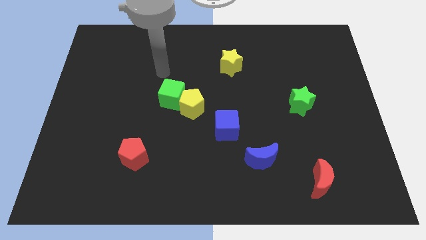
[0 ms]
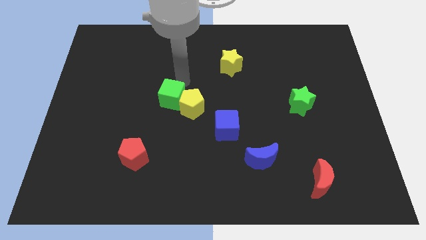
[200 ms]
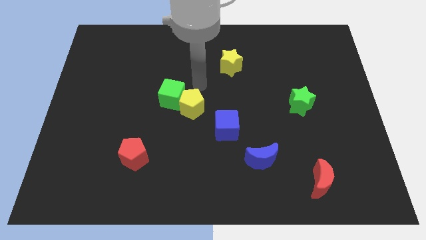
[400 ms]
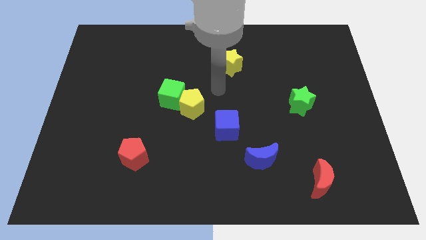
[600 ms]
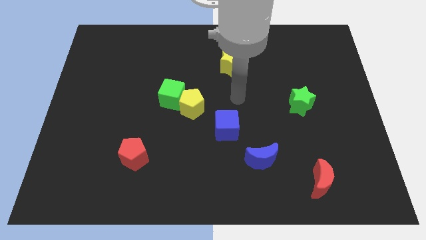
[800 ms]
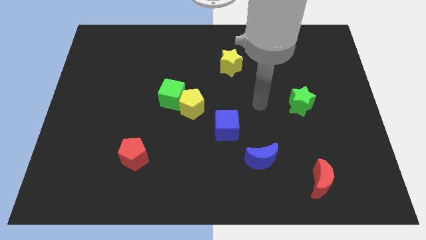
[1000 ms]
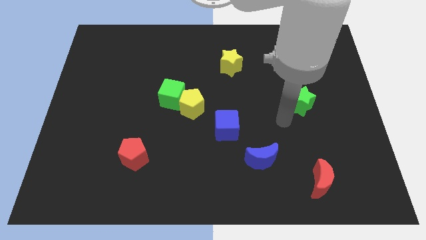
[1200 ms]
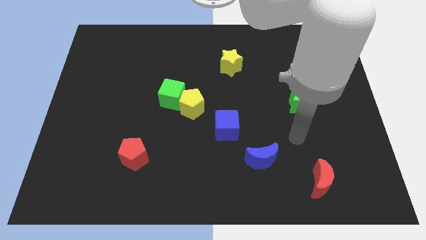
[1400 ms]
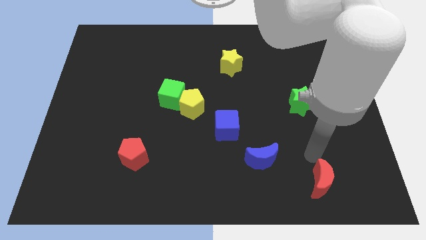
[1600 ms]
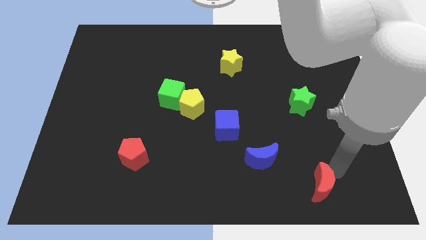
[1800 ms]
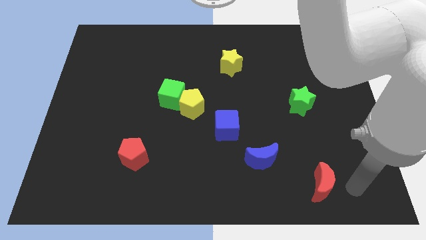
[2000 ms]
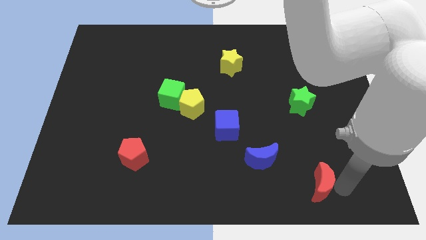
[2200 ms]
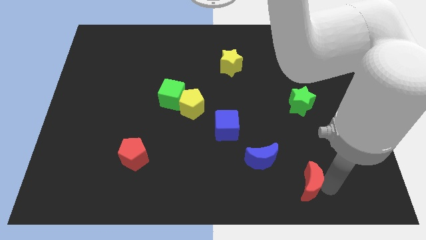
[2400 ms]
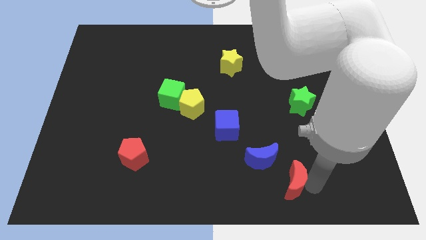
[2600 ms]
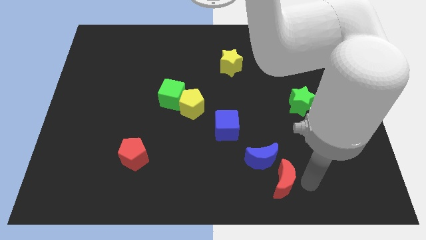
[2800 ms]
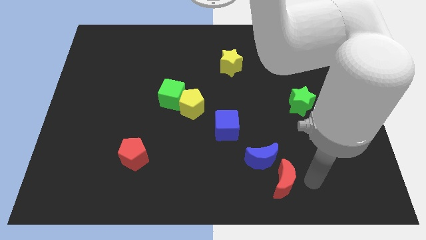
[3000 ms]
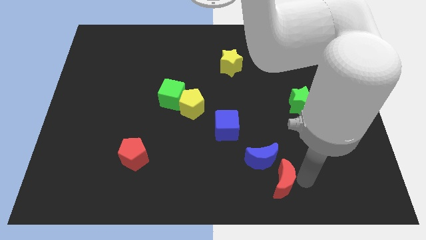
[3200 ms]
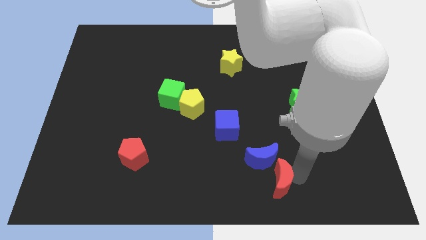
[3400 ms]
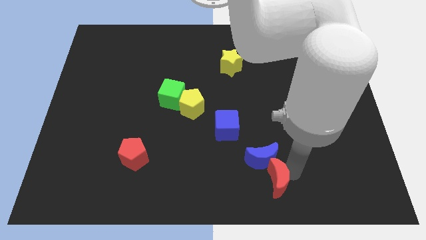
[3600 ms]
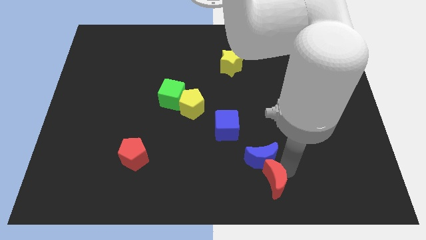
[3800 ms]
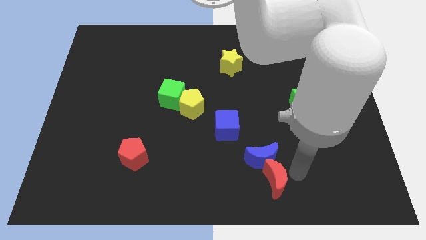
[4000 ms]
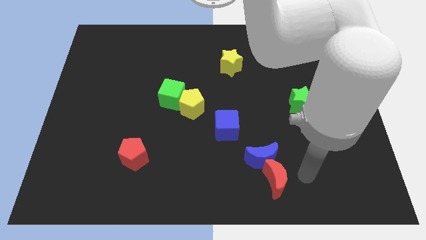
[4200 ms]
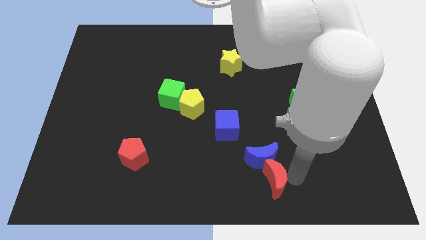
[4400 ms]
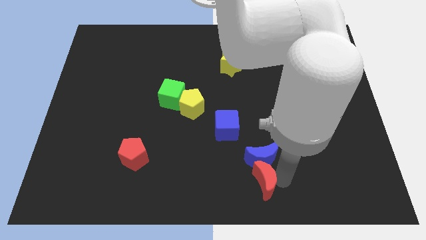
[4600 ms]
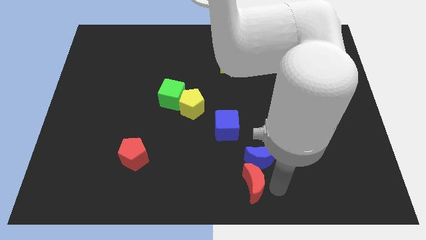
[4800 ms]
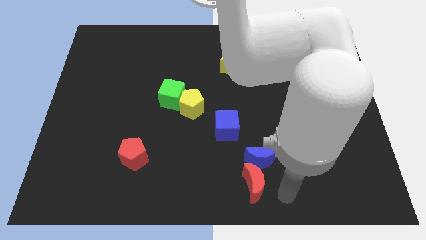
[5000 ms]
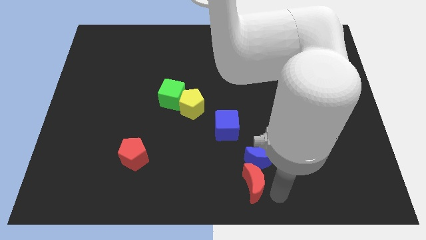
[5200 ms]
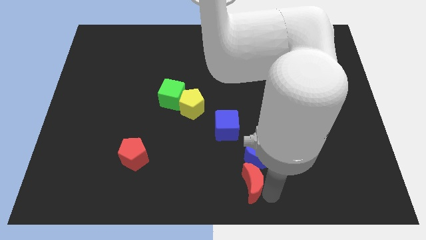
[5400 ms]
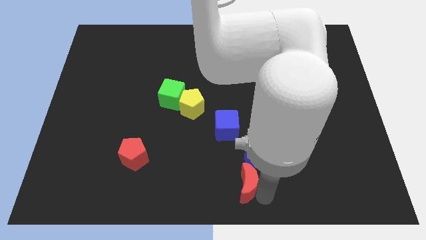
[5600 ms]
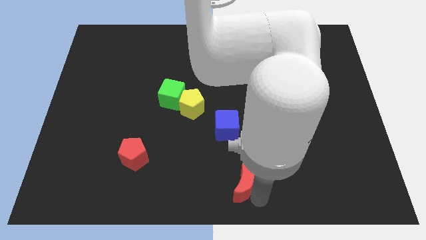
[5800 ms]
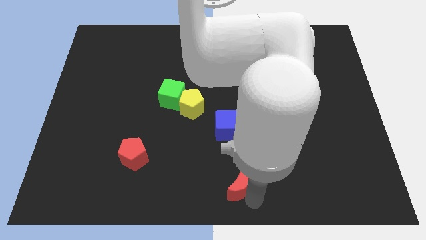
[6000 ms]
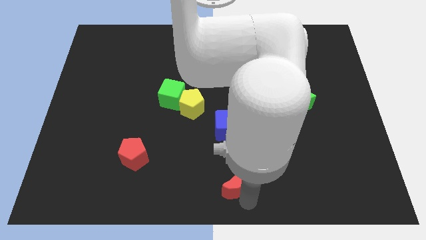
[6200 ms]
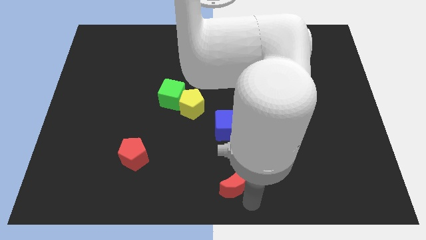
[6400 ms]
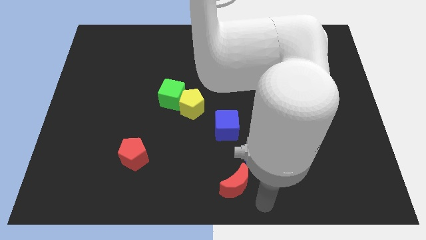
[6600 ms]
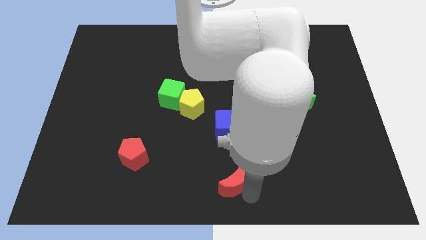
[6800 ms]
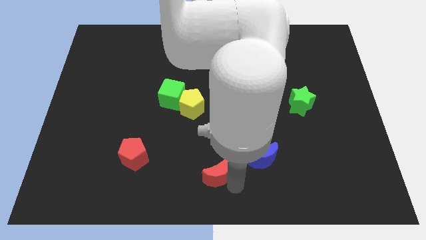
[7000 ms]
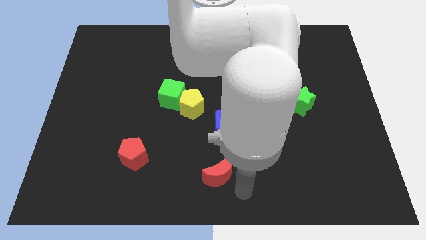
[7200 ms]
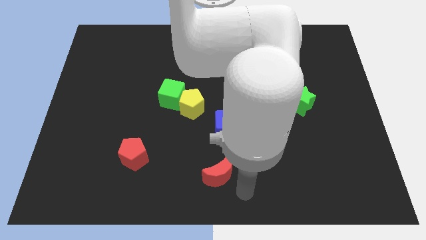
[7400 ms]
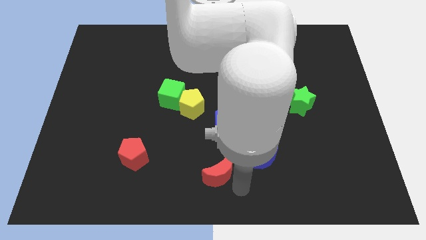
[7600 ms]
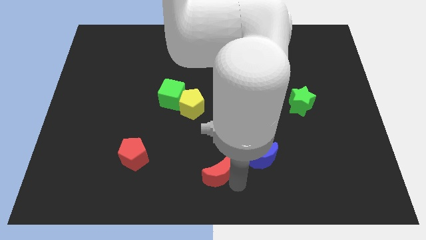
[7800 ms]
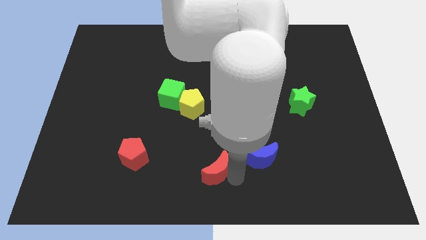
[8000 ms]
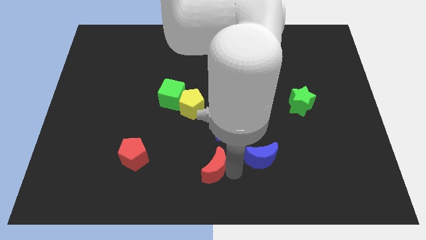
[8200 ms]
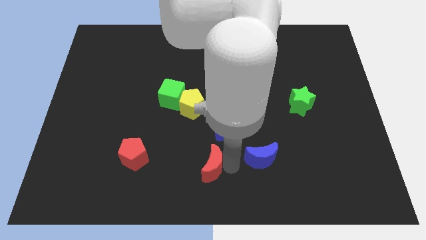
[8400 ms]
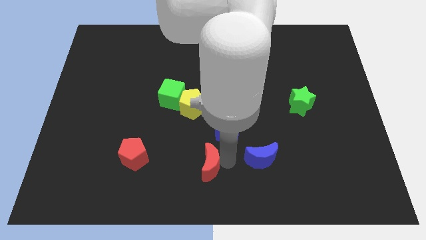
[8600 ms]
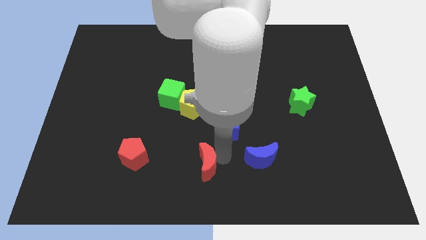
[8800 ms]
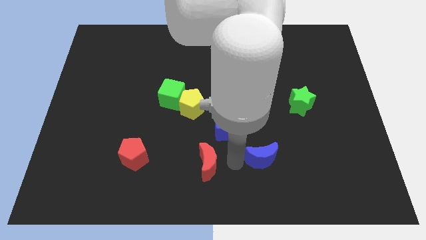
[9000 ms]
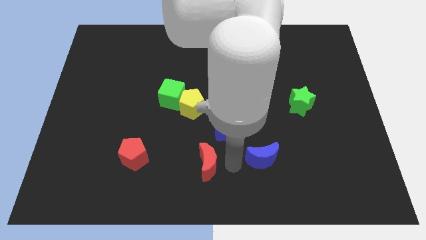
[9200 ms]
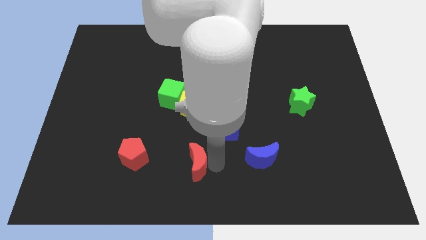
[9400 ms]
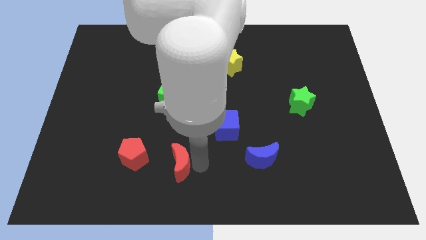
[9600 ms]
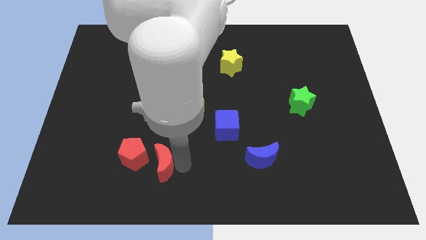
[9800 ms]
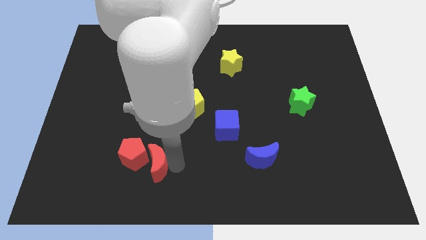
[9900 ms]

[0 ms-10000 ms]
move the red moon close to the red pentagon

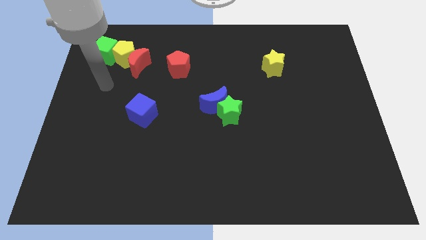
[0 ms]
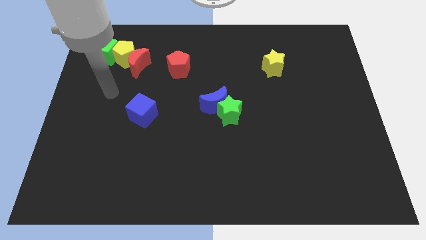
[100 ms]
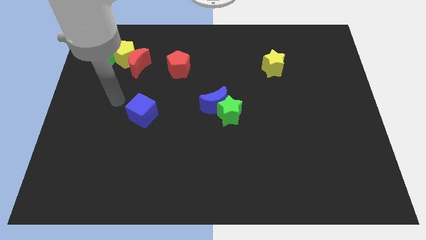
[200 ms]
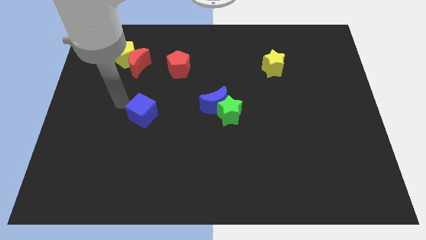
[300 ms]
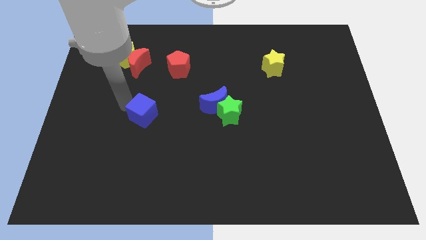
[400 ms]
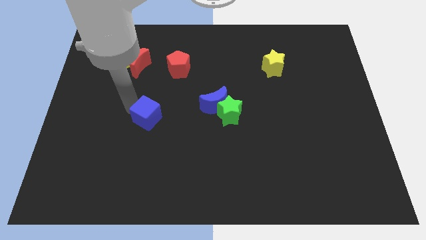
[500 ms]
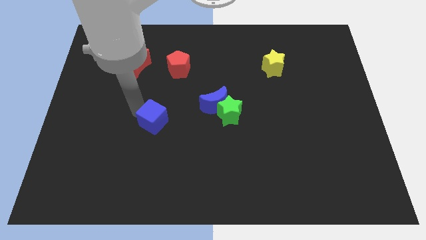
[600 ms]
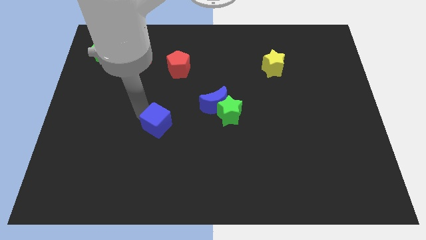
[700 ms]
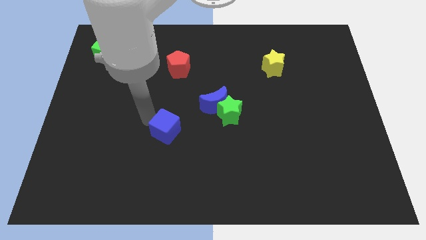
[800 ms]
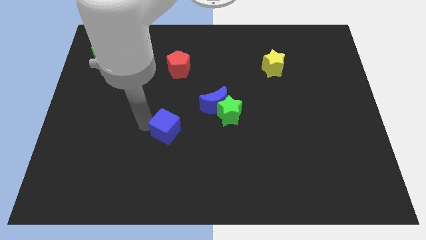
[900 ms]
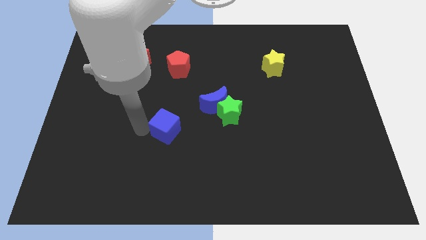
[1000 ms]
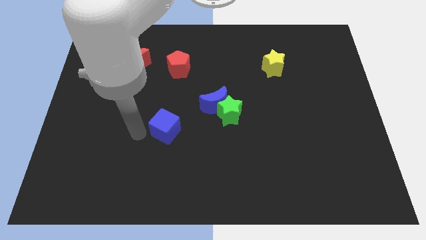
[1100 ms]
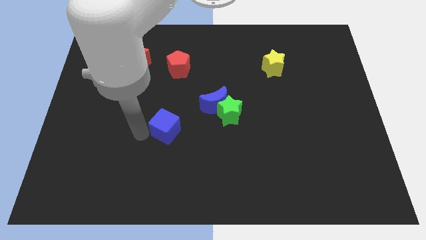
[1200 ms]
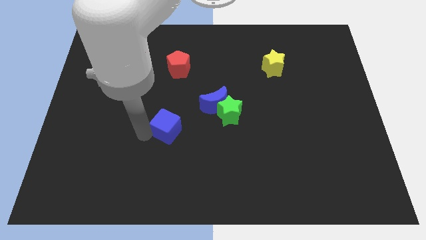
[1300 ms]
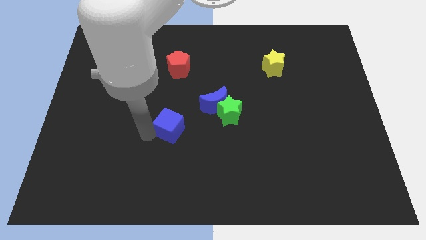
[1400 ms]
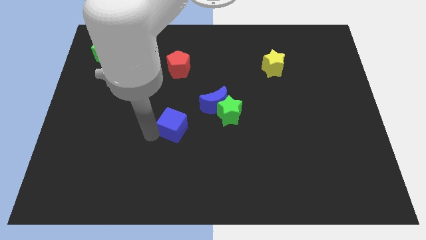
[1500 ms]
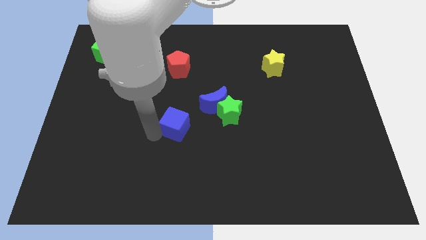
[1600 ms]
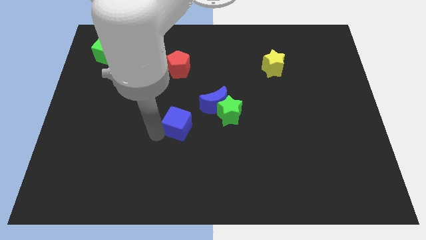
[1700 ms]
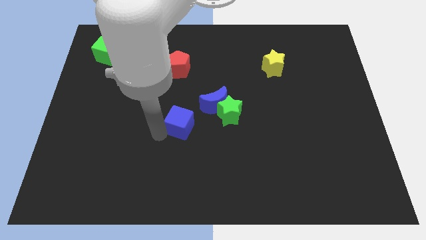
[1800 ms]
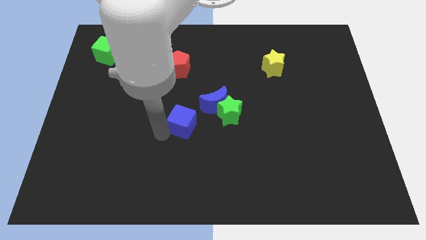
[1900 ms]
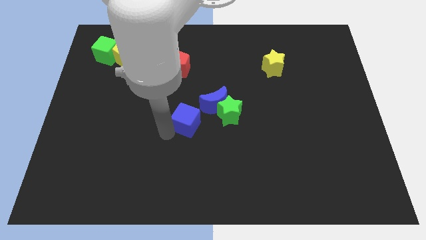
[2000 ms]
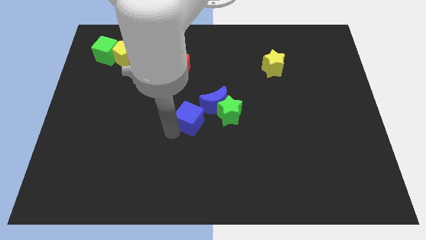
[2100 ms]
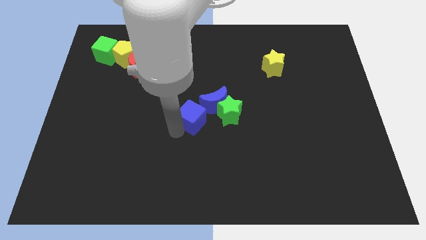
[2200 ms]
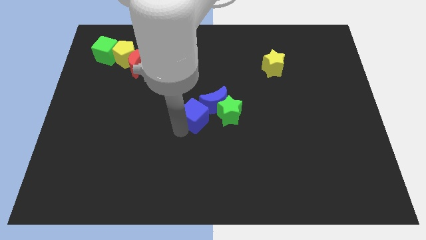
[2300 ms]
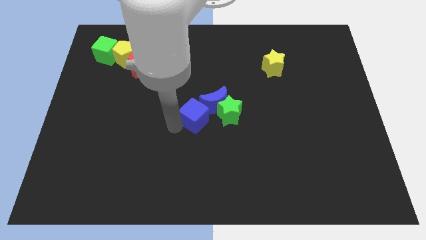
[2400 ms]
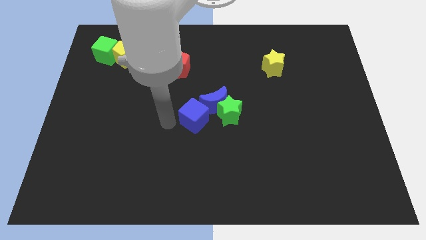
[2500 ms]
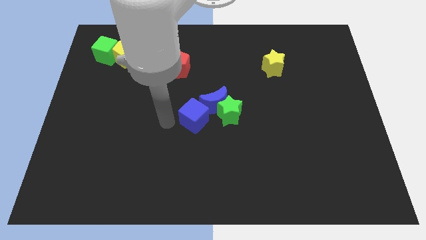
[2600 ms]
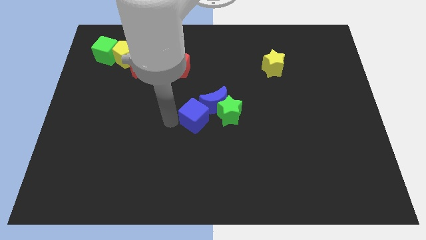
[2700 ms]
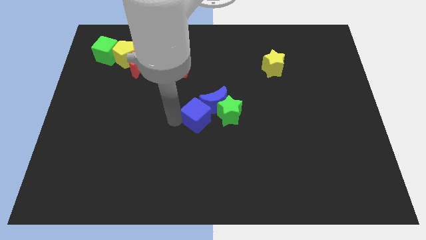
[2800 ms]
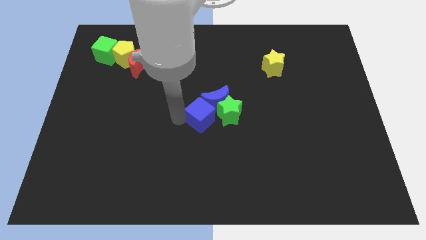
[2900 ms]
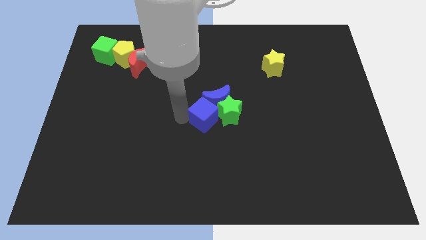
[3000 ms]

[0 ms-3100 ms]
put the blue cube towards the green star
